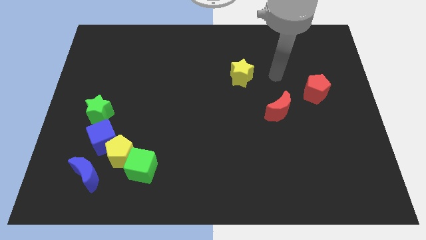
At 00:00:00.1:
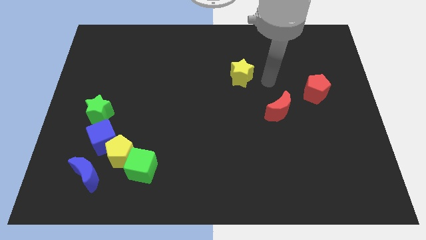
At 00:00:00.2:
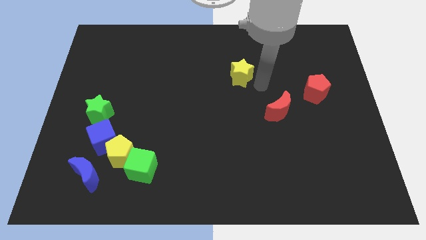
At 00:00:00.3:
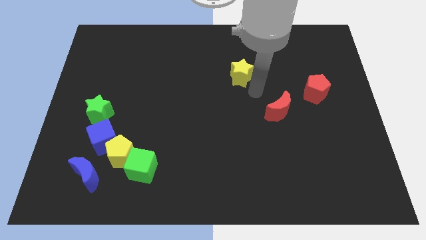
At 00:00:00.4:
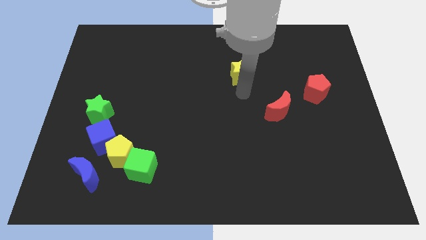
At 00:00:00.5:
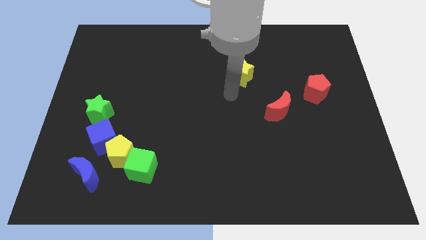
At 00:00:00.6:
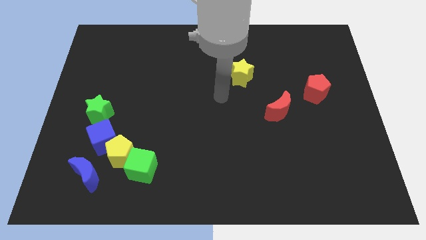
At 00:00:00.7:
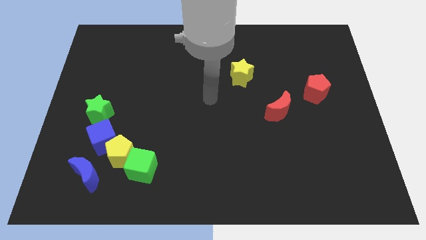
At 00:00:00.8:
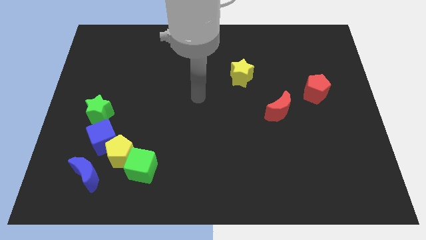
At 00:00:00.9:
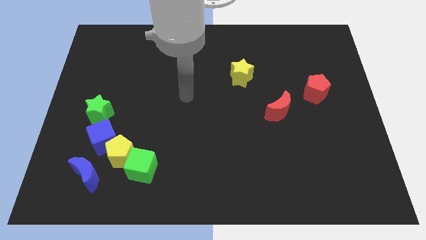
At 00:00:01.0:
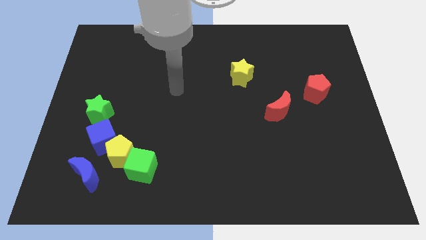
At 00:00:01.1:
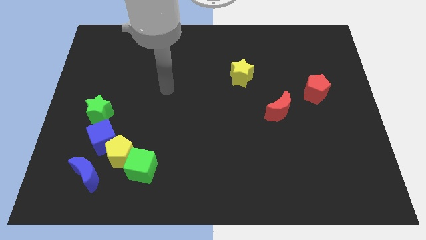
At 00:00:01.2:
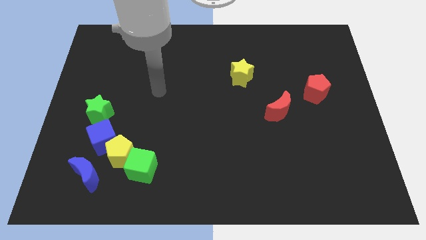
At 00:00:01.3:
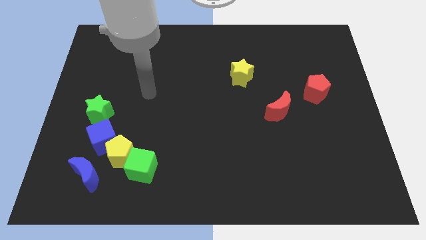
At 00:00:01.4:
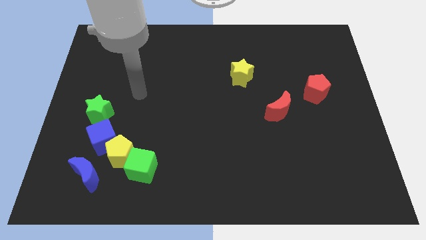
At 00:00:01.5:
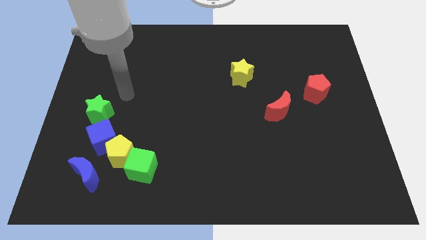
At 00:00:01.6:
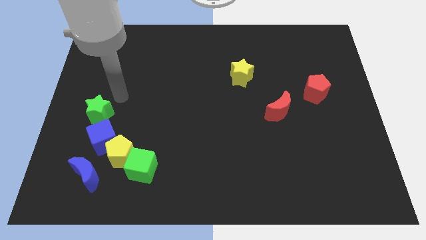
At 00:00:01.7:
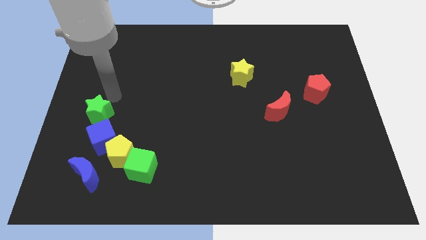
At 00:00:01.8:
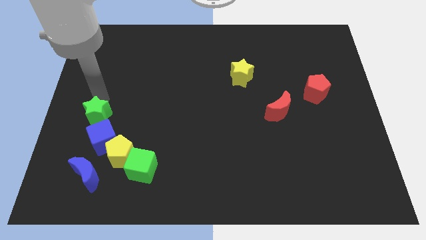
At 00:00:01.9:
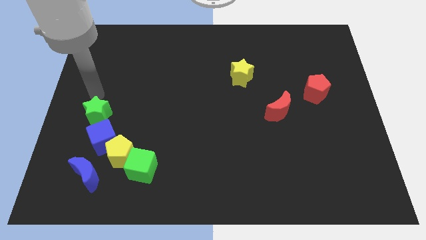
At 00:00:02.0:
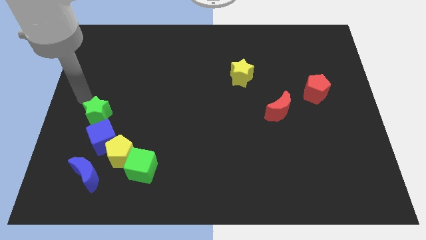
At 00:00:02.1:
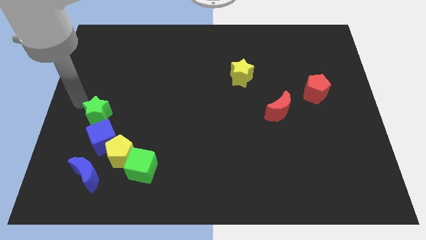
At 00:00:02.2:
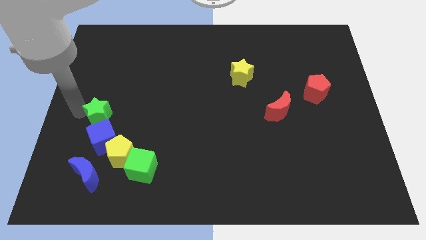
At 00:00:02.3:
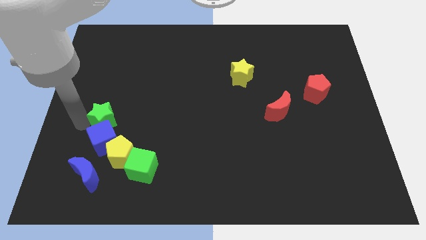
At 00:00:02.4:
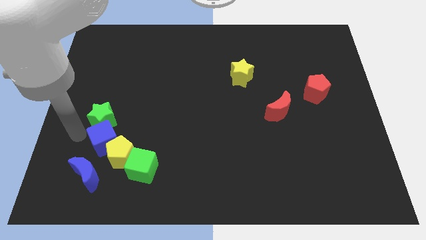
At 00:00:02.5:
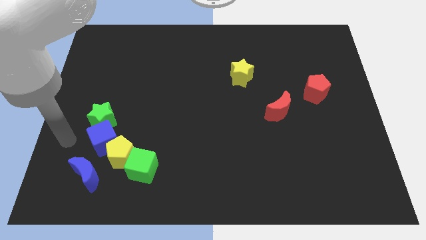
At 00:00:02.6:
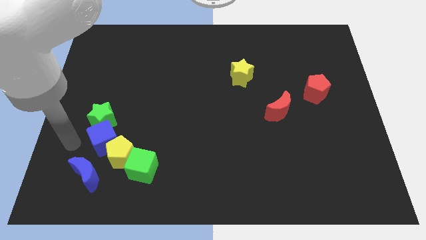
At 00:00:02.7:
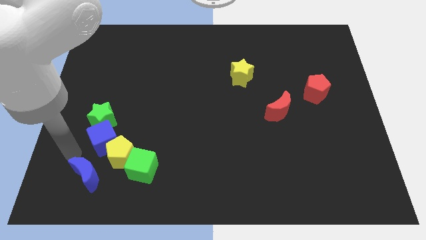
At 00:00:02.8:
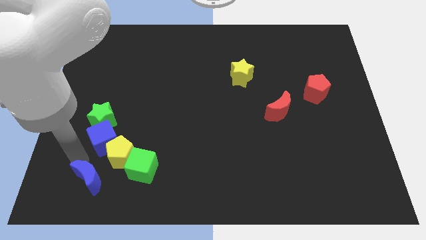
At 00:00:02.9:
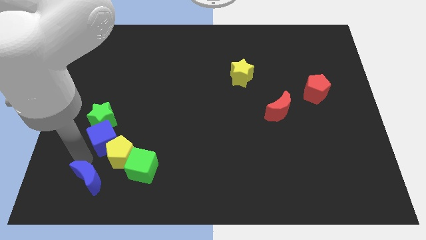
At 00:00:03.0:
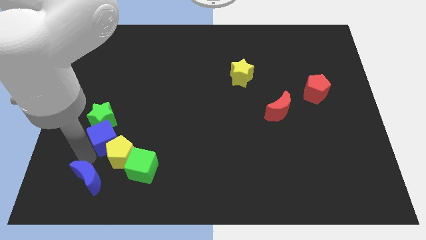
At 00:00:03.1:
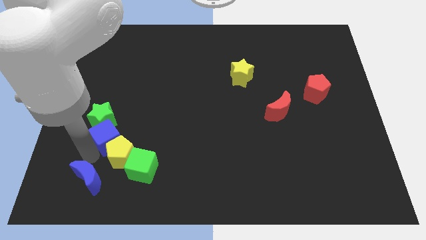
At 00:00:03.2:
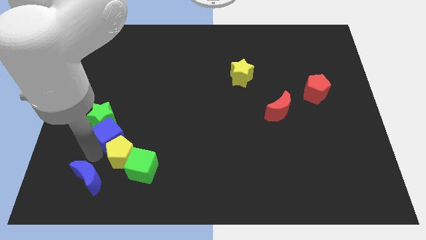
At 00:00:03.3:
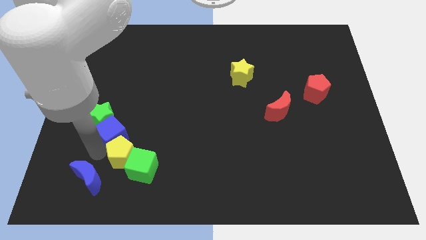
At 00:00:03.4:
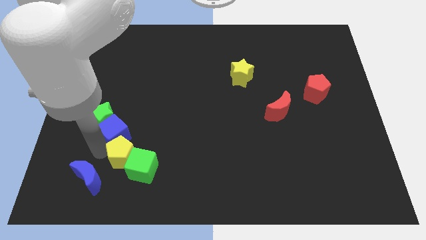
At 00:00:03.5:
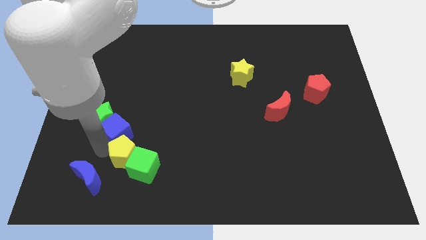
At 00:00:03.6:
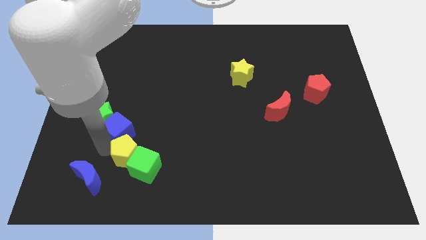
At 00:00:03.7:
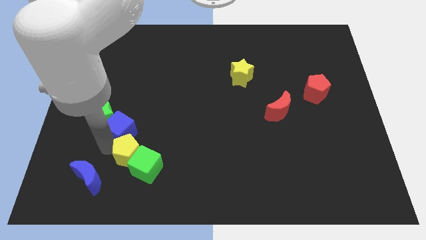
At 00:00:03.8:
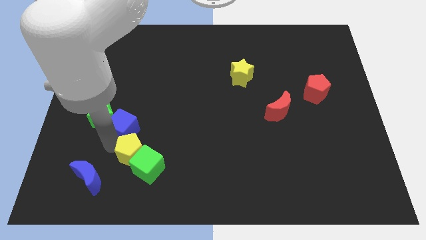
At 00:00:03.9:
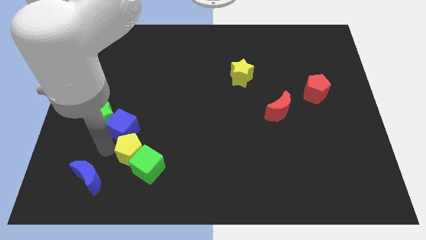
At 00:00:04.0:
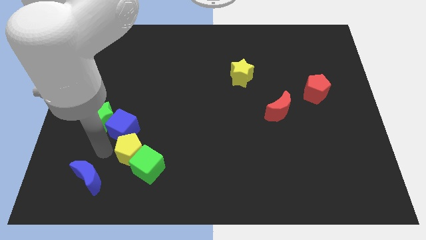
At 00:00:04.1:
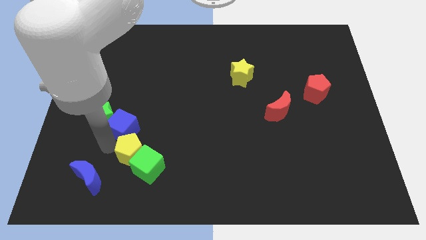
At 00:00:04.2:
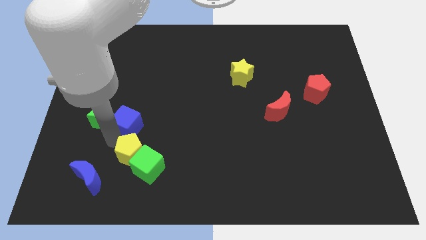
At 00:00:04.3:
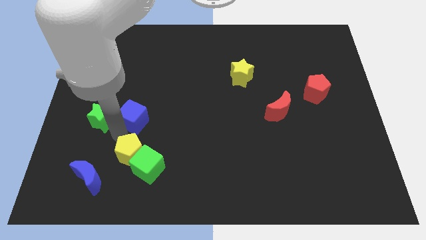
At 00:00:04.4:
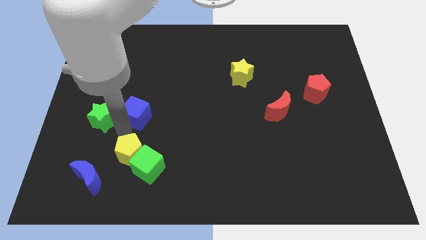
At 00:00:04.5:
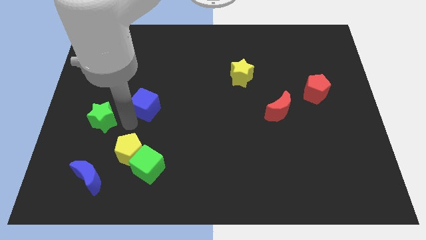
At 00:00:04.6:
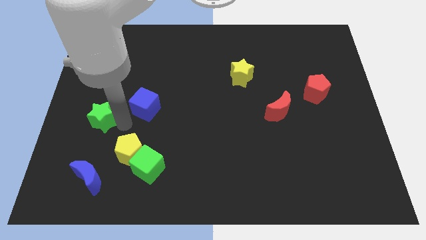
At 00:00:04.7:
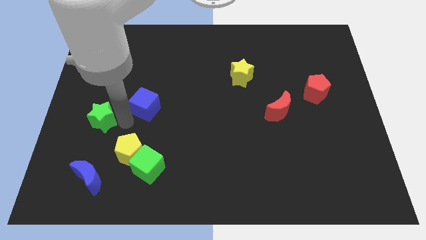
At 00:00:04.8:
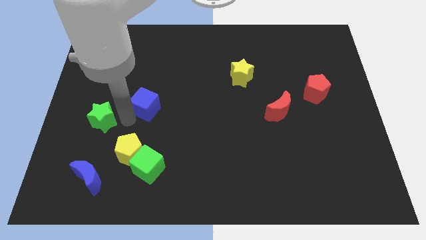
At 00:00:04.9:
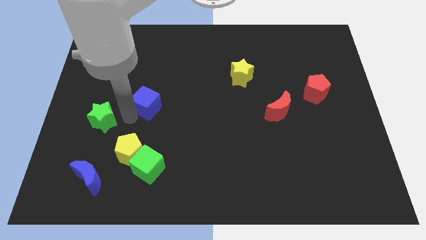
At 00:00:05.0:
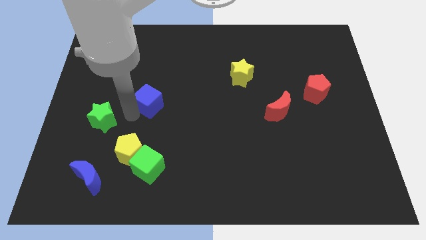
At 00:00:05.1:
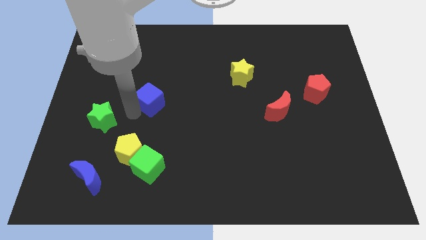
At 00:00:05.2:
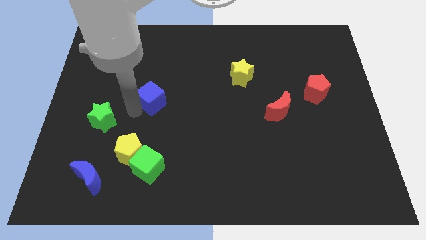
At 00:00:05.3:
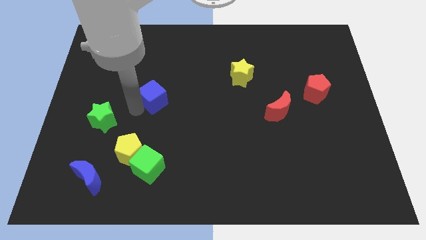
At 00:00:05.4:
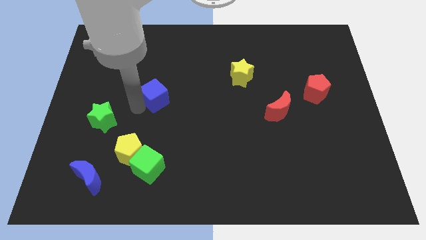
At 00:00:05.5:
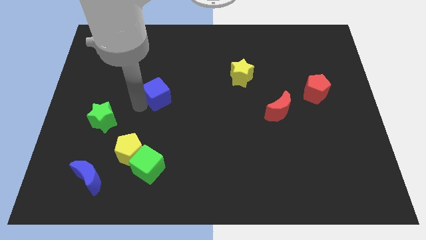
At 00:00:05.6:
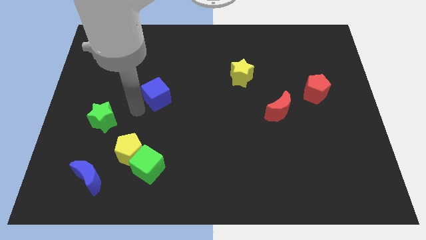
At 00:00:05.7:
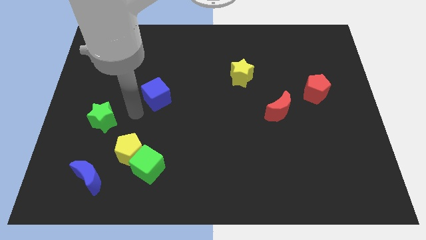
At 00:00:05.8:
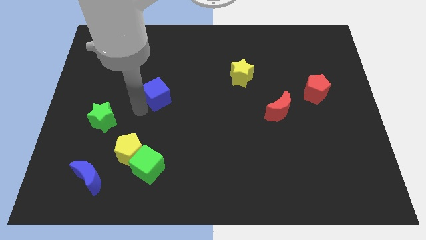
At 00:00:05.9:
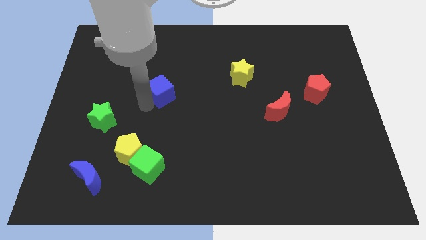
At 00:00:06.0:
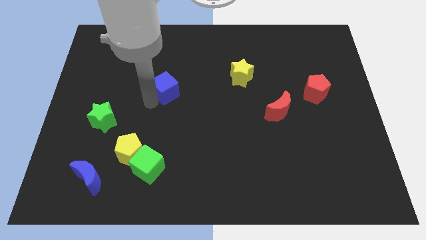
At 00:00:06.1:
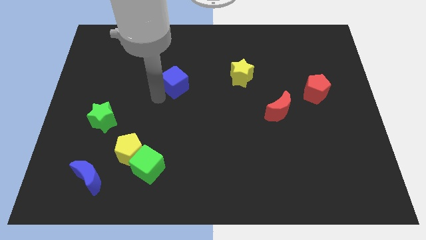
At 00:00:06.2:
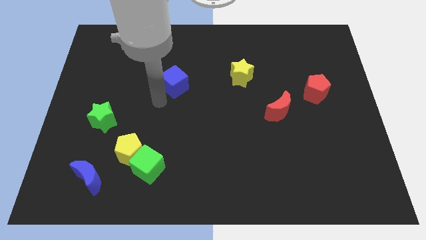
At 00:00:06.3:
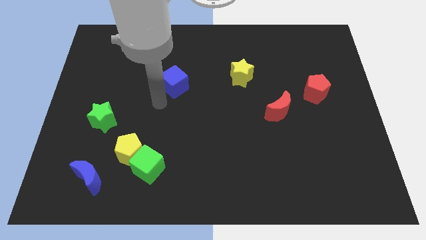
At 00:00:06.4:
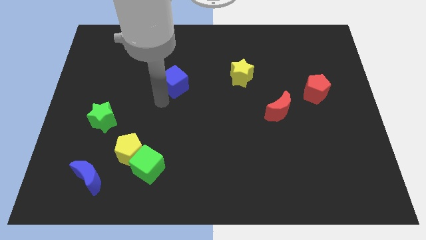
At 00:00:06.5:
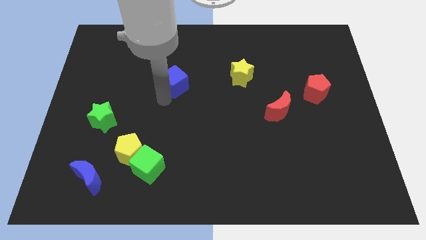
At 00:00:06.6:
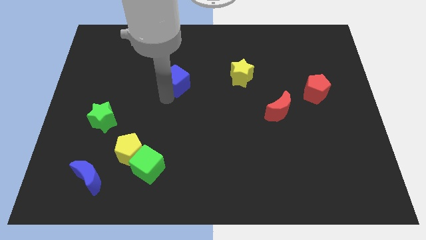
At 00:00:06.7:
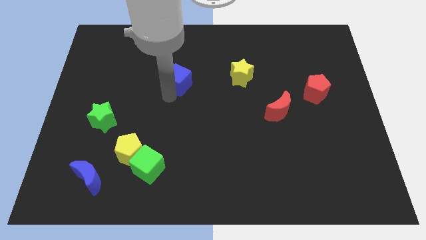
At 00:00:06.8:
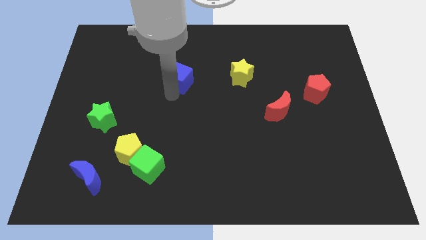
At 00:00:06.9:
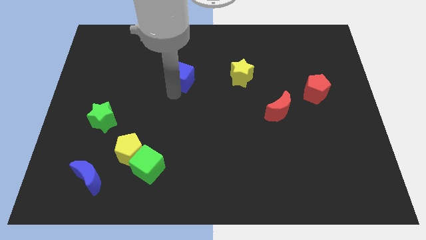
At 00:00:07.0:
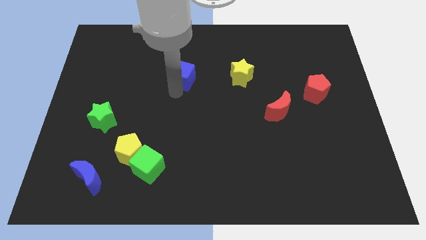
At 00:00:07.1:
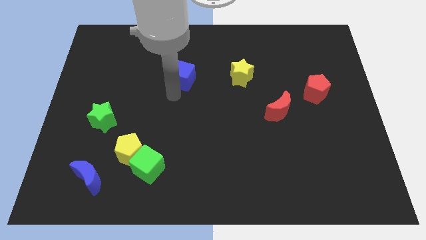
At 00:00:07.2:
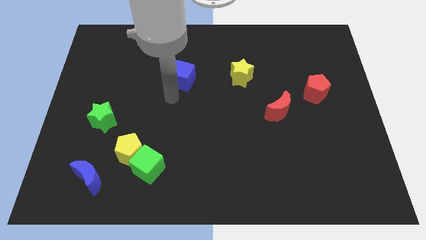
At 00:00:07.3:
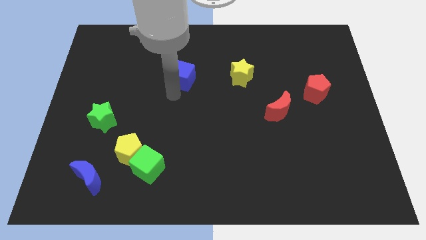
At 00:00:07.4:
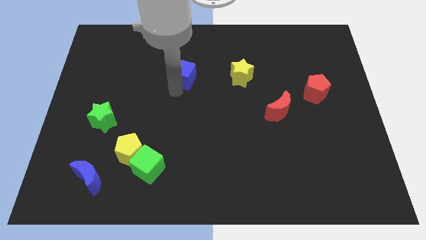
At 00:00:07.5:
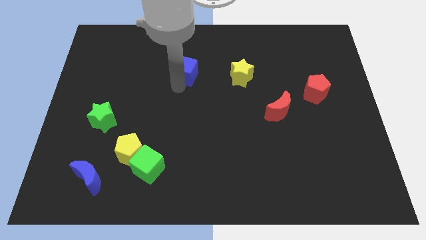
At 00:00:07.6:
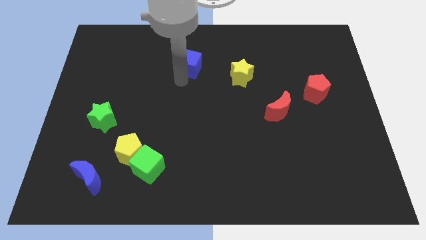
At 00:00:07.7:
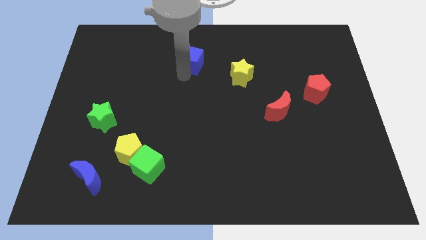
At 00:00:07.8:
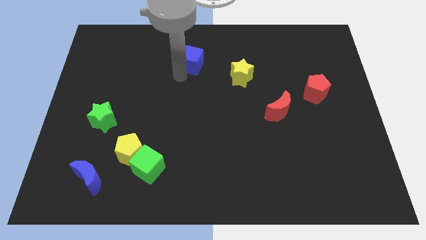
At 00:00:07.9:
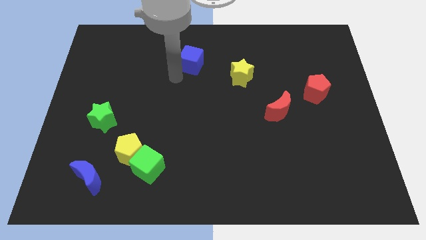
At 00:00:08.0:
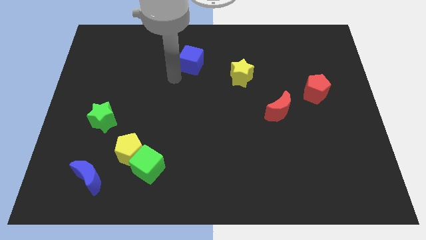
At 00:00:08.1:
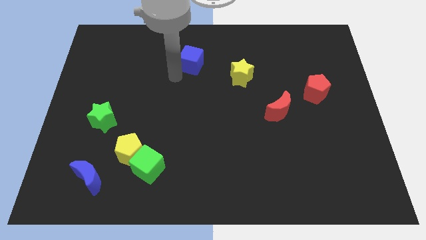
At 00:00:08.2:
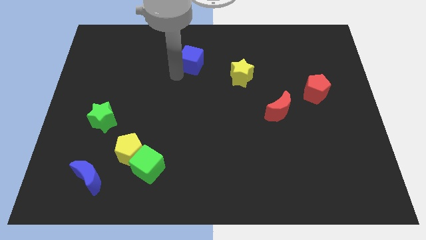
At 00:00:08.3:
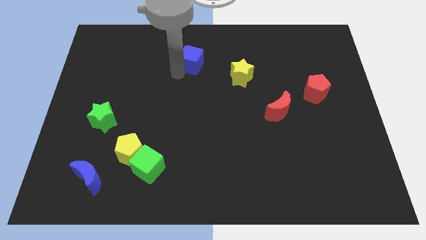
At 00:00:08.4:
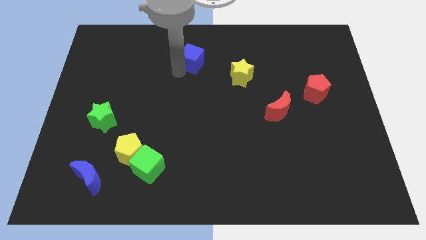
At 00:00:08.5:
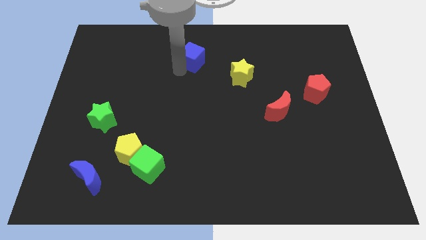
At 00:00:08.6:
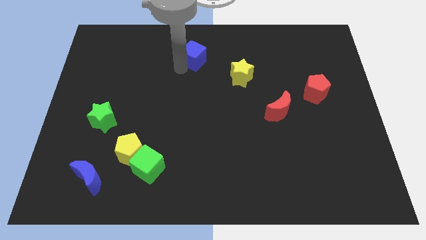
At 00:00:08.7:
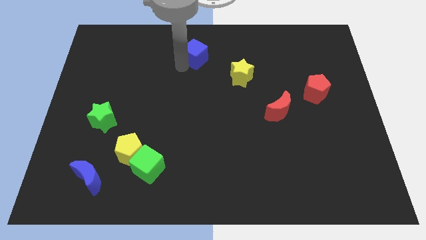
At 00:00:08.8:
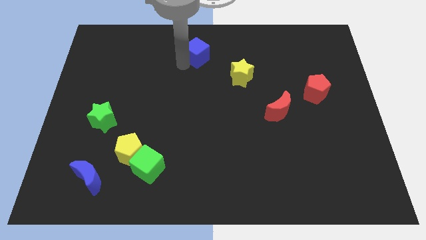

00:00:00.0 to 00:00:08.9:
put the blue cube to the top side
